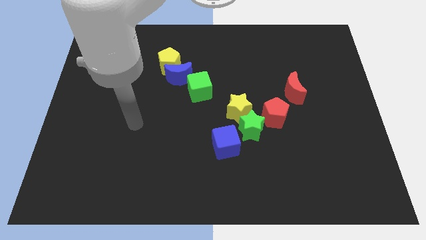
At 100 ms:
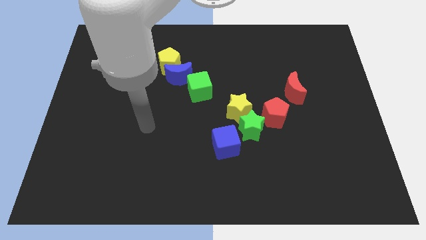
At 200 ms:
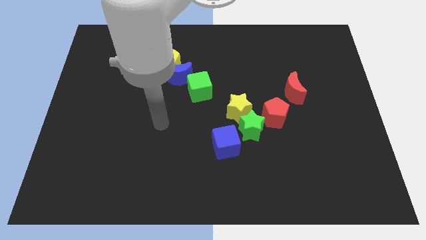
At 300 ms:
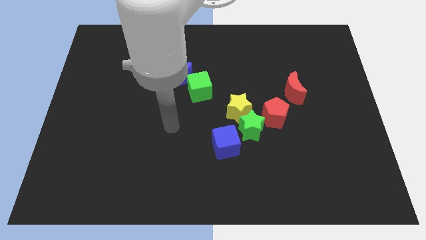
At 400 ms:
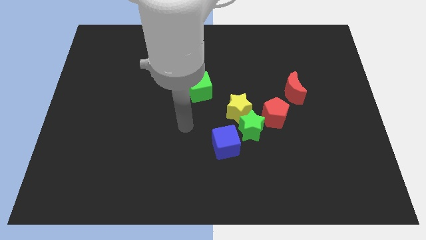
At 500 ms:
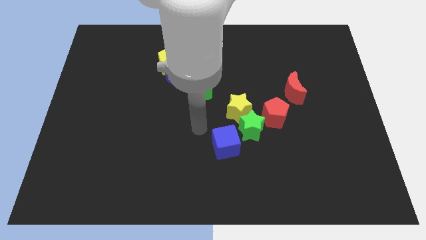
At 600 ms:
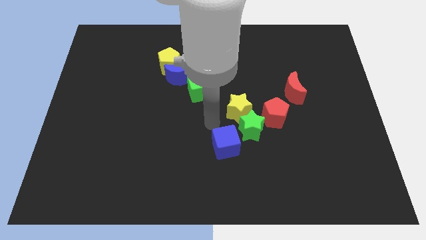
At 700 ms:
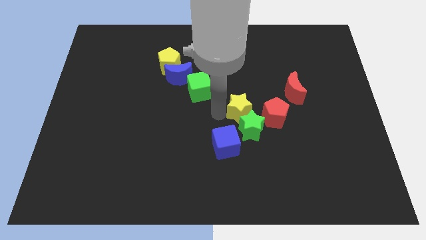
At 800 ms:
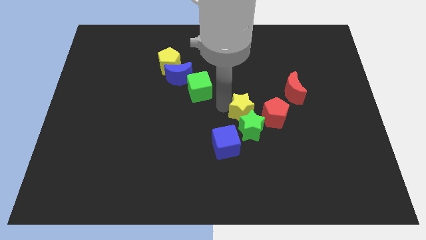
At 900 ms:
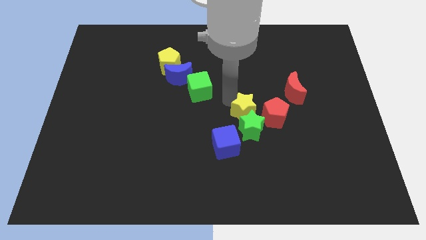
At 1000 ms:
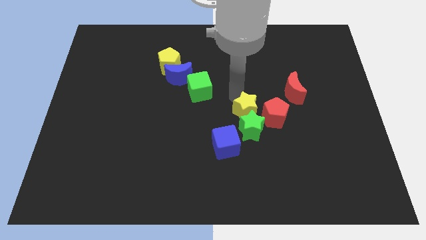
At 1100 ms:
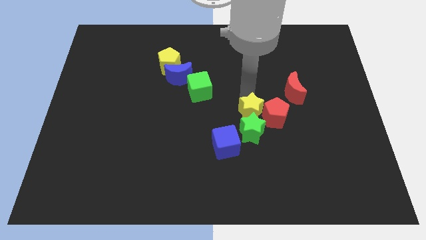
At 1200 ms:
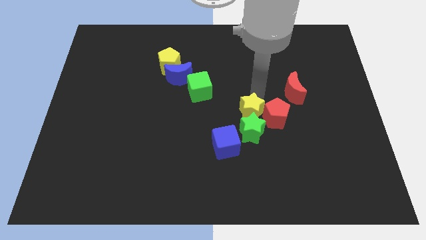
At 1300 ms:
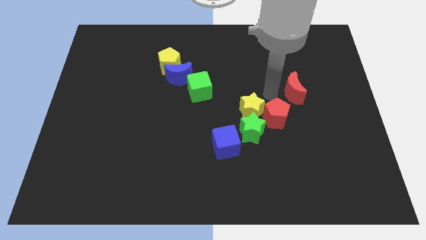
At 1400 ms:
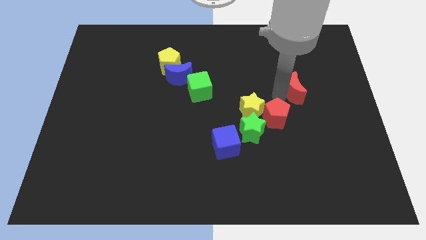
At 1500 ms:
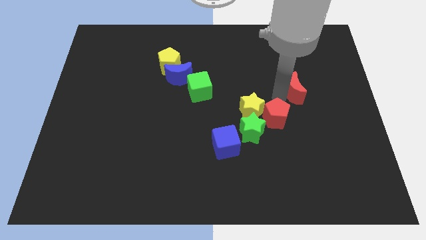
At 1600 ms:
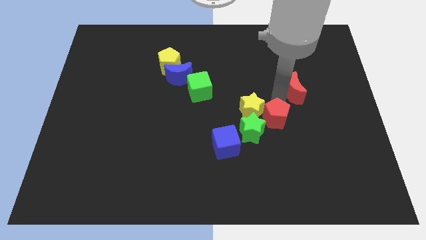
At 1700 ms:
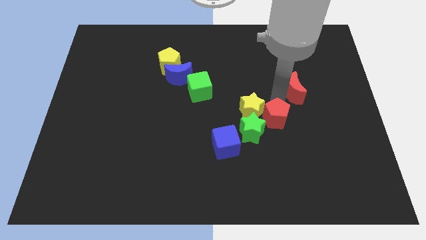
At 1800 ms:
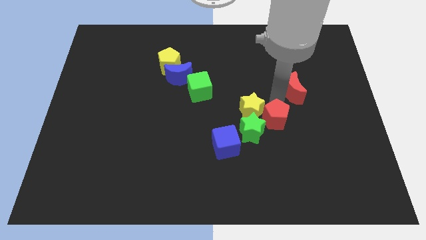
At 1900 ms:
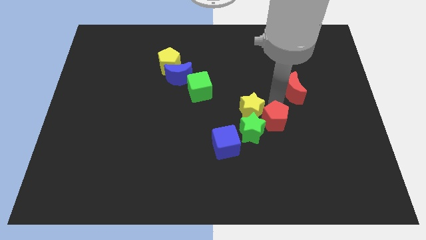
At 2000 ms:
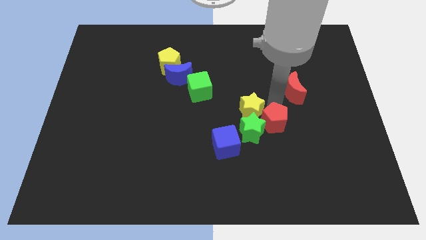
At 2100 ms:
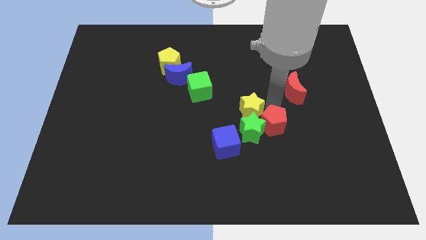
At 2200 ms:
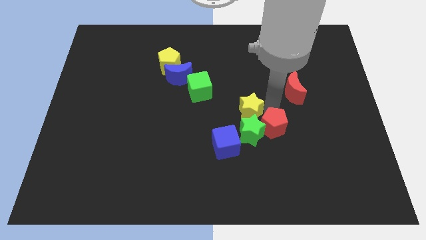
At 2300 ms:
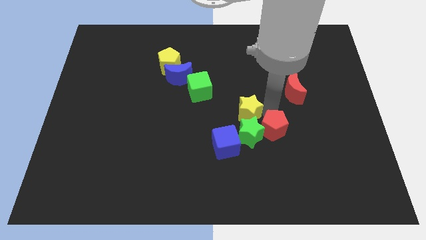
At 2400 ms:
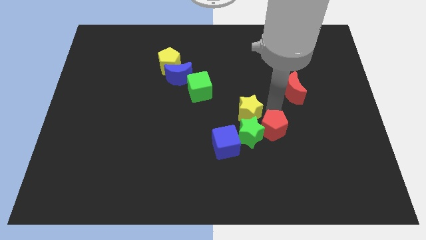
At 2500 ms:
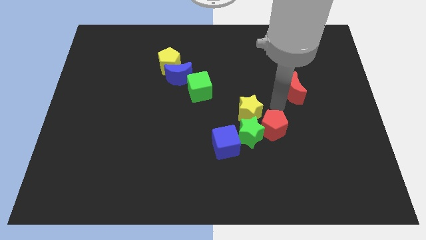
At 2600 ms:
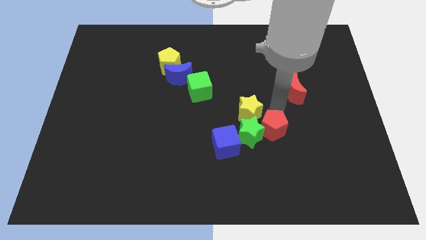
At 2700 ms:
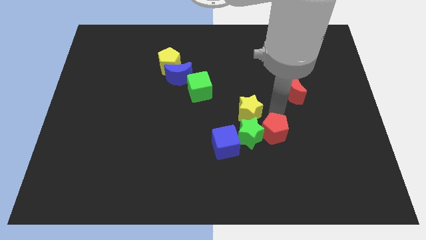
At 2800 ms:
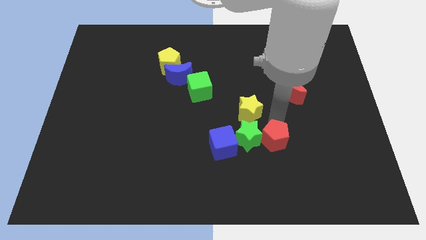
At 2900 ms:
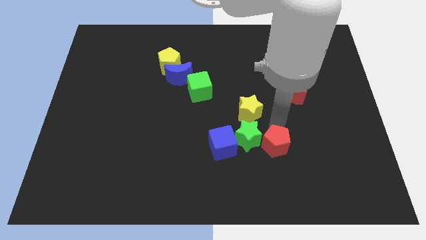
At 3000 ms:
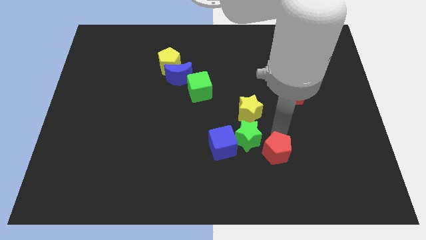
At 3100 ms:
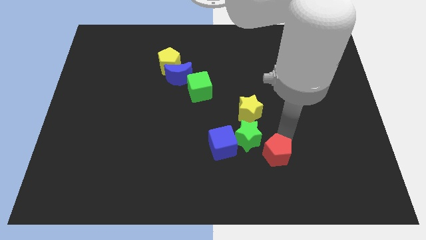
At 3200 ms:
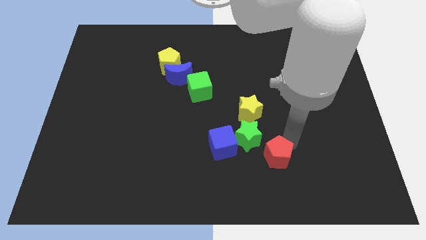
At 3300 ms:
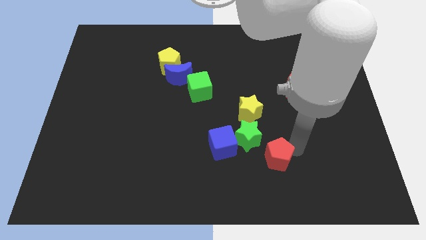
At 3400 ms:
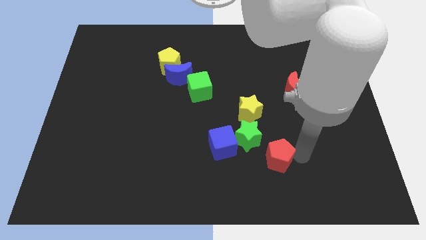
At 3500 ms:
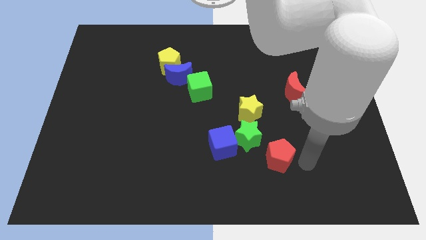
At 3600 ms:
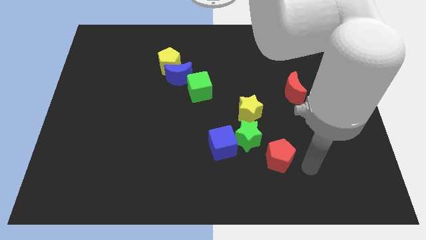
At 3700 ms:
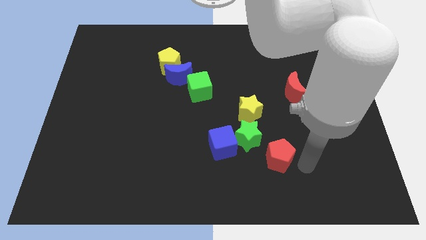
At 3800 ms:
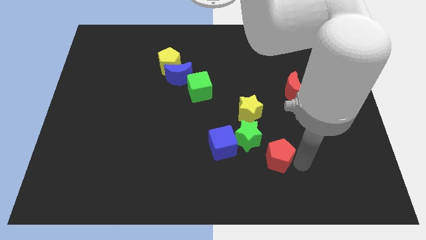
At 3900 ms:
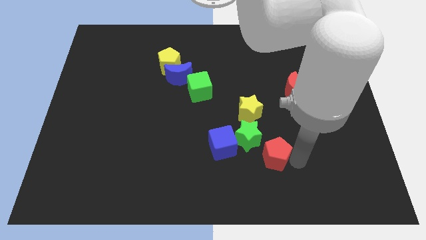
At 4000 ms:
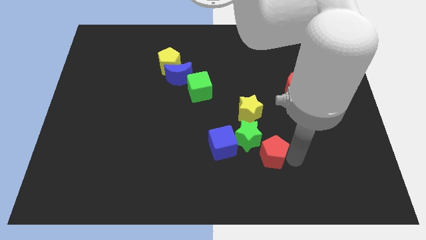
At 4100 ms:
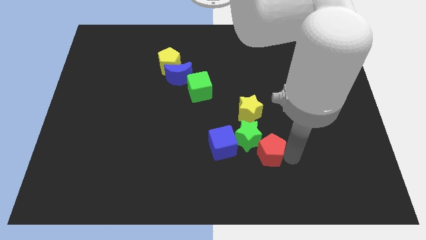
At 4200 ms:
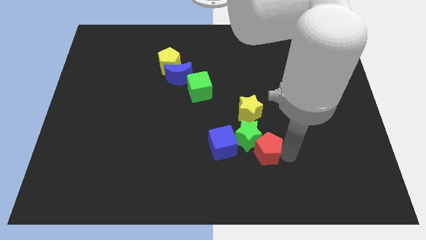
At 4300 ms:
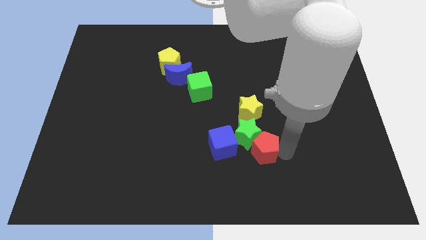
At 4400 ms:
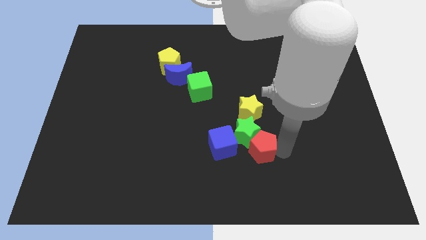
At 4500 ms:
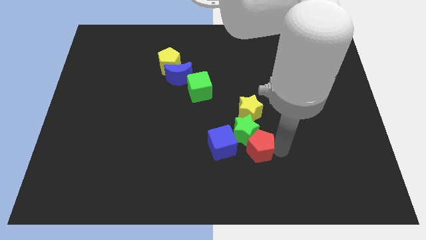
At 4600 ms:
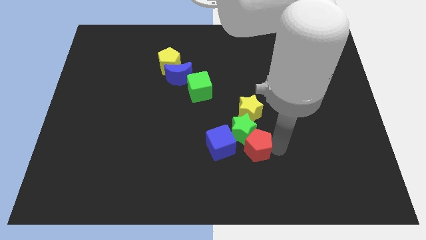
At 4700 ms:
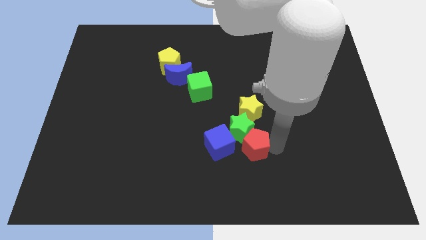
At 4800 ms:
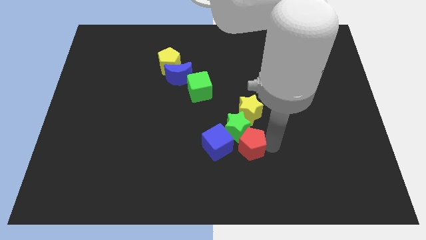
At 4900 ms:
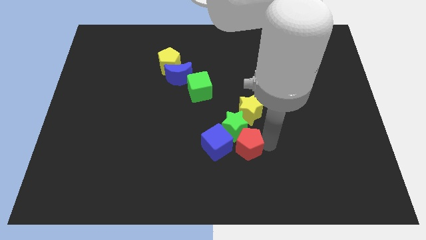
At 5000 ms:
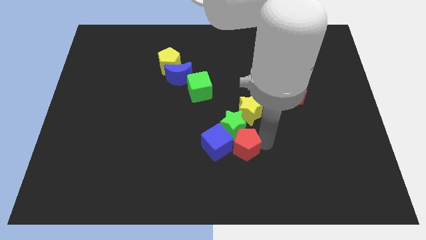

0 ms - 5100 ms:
move the red pentagon towards the blue cube

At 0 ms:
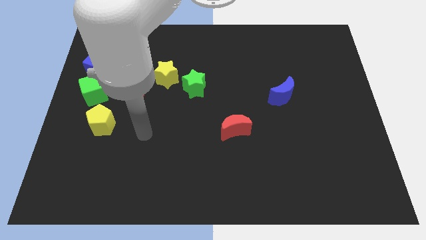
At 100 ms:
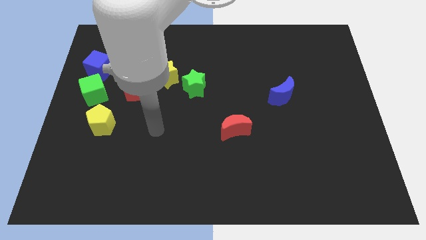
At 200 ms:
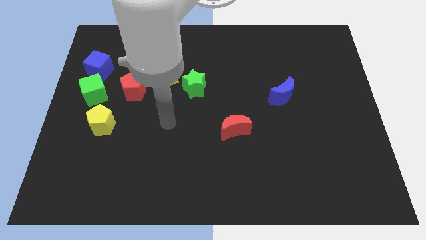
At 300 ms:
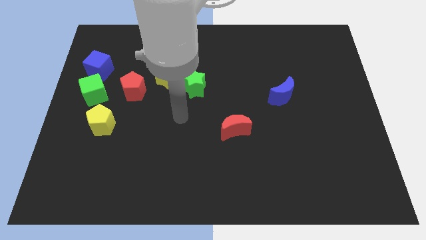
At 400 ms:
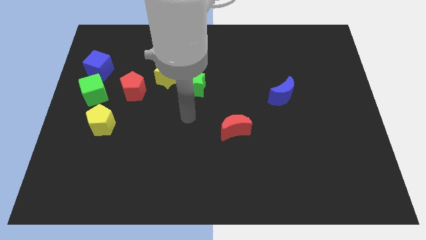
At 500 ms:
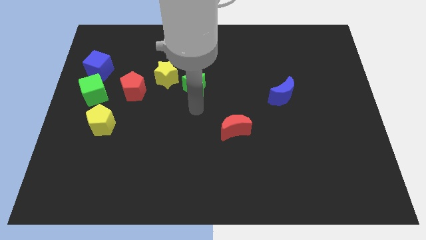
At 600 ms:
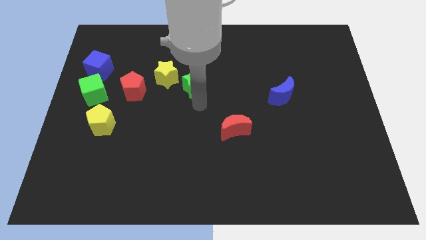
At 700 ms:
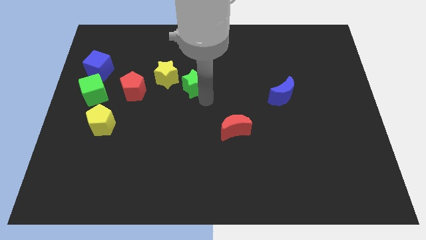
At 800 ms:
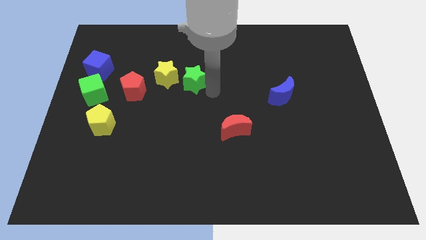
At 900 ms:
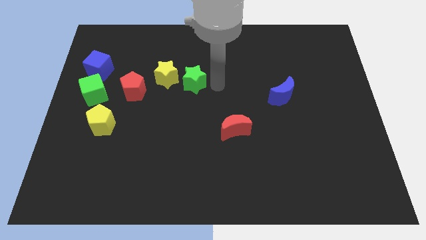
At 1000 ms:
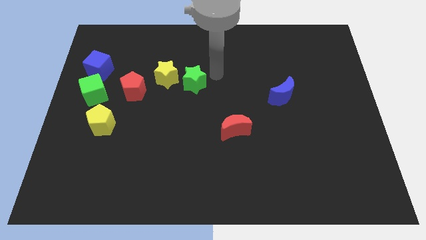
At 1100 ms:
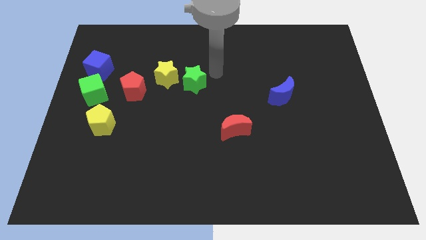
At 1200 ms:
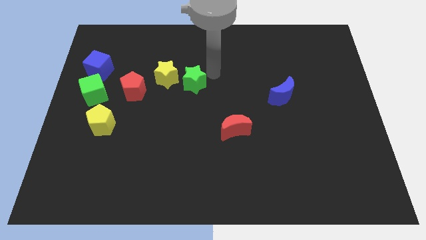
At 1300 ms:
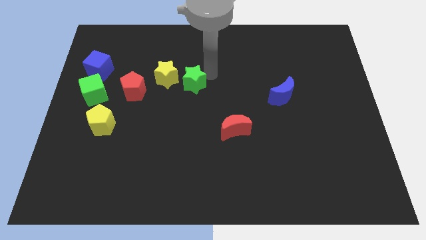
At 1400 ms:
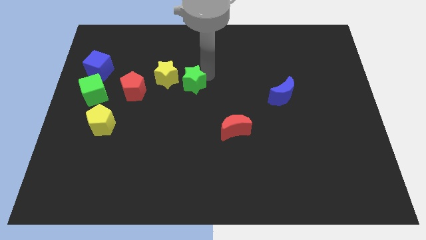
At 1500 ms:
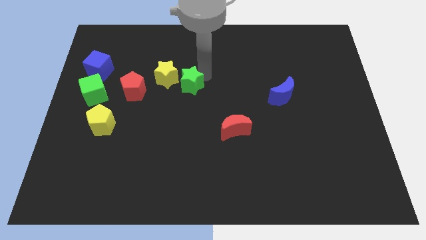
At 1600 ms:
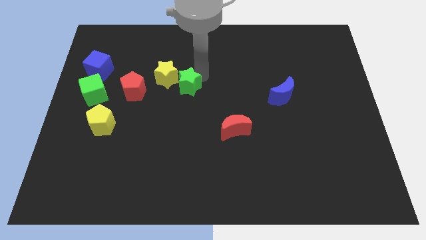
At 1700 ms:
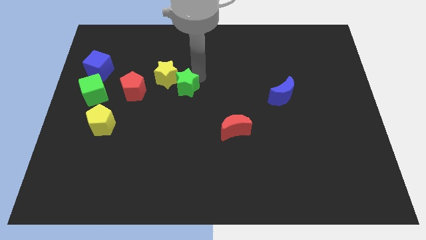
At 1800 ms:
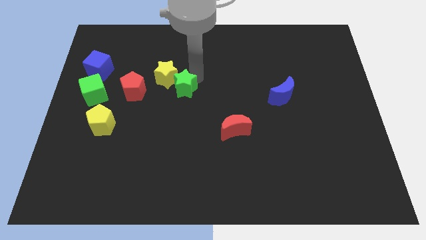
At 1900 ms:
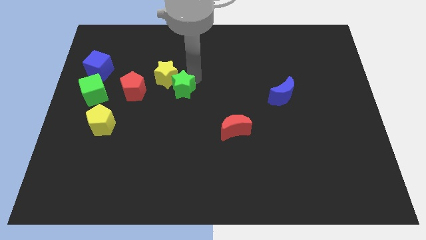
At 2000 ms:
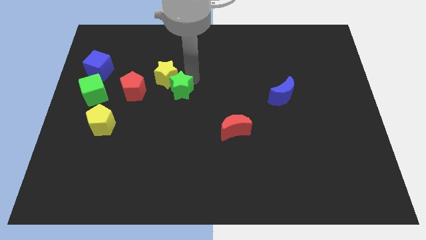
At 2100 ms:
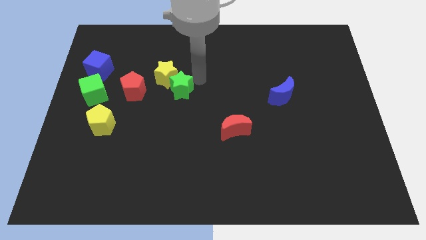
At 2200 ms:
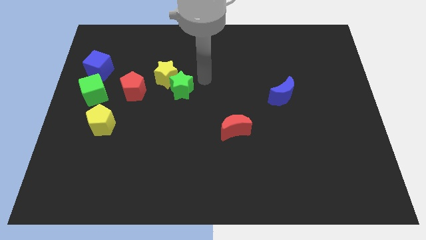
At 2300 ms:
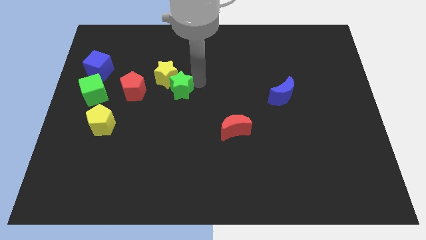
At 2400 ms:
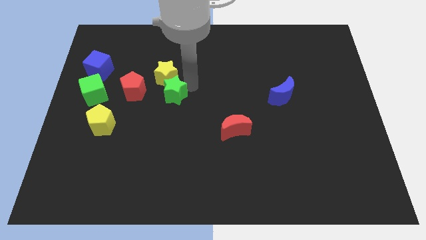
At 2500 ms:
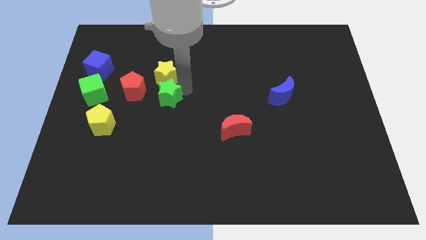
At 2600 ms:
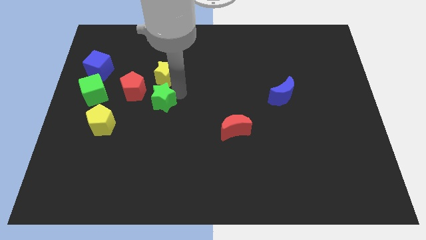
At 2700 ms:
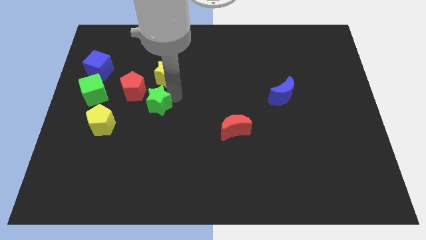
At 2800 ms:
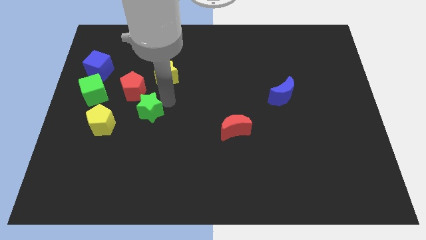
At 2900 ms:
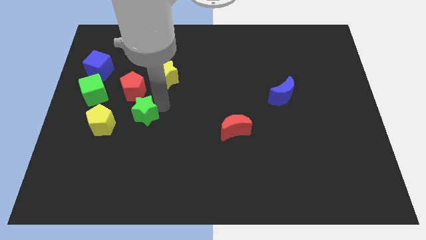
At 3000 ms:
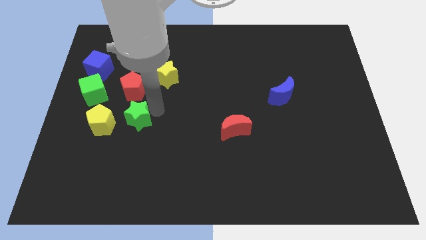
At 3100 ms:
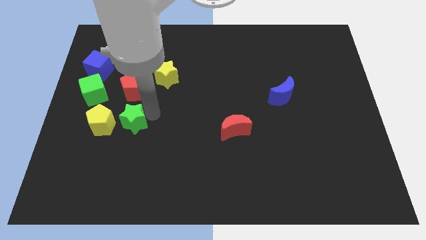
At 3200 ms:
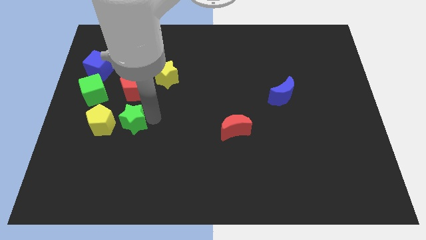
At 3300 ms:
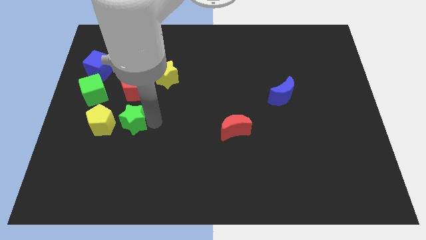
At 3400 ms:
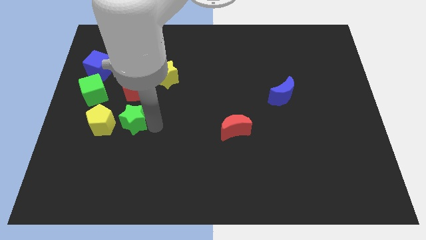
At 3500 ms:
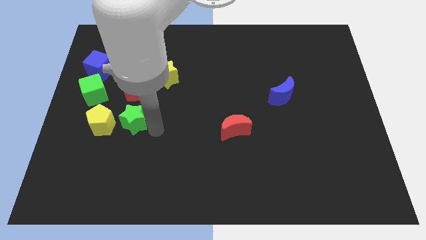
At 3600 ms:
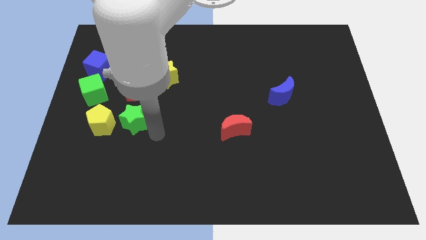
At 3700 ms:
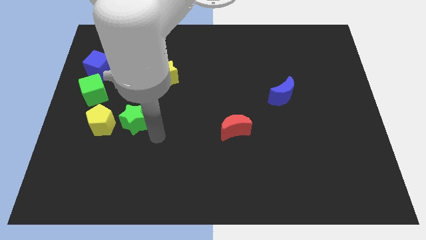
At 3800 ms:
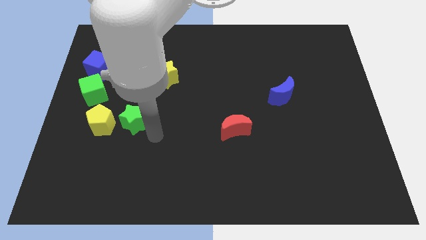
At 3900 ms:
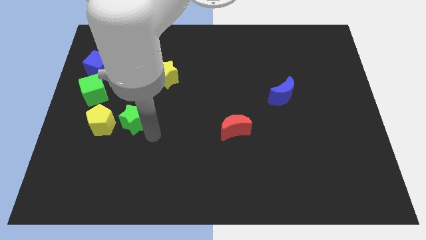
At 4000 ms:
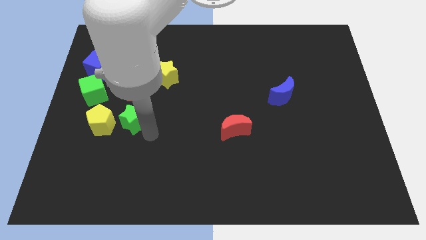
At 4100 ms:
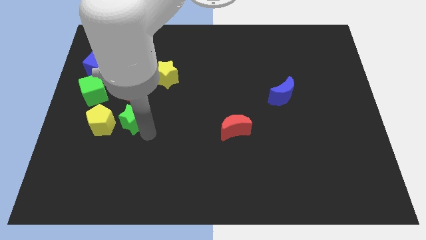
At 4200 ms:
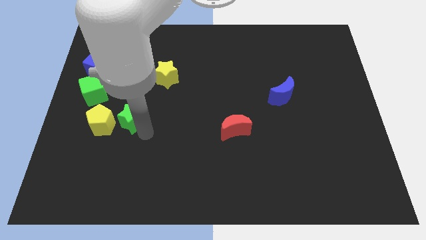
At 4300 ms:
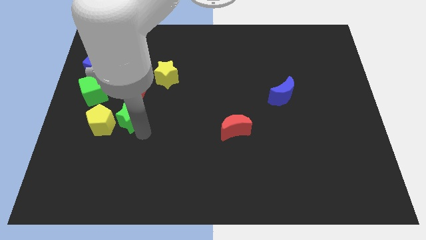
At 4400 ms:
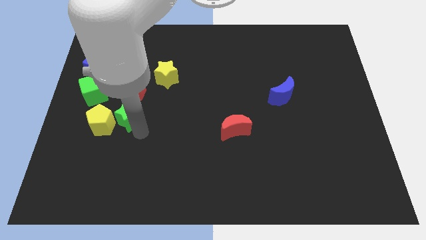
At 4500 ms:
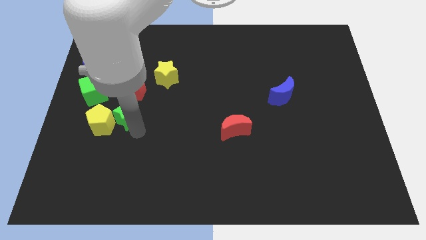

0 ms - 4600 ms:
push the green star next to the yellow pentagon
